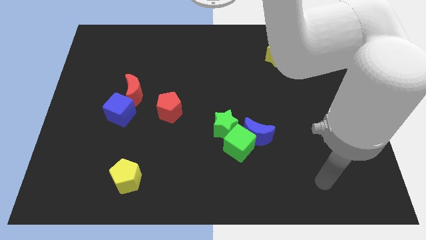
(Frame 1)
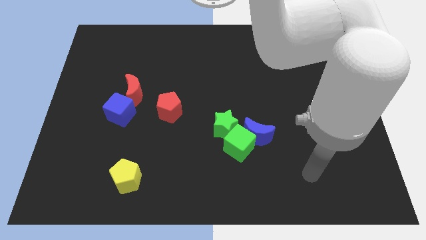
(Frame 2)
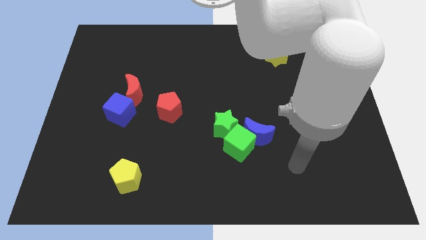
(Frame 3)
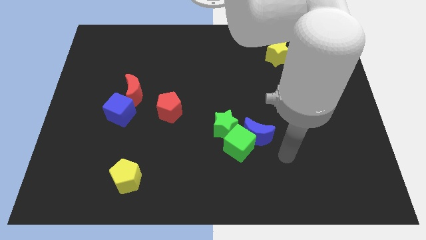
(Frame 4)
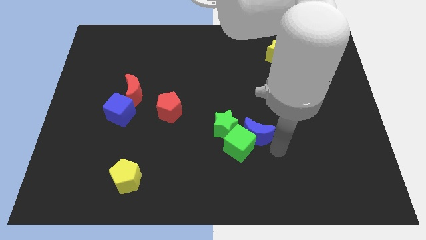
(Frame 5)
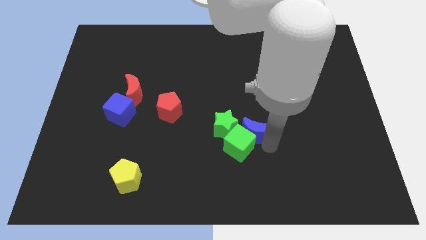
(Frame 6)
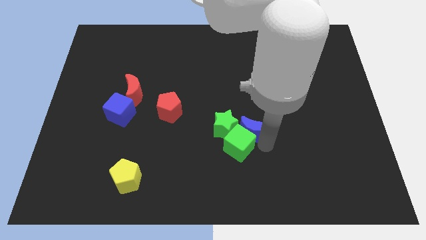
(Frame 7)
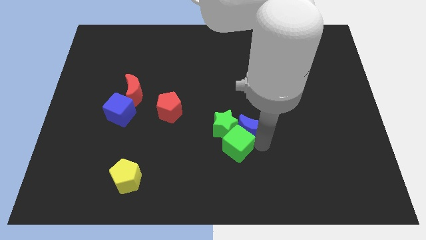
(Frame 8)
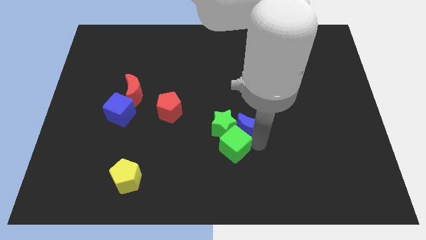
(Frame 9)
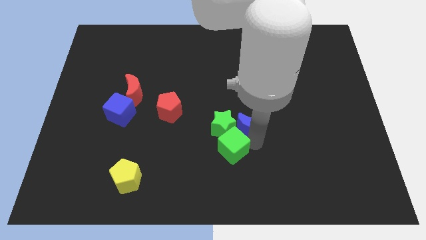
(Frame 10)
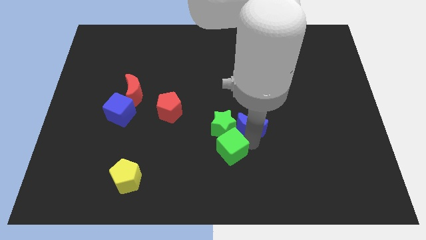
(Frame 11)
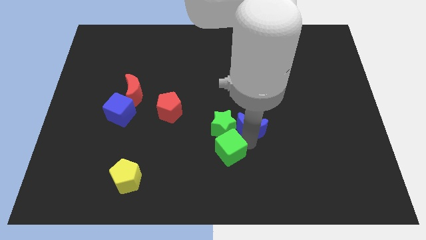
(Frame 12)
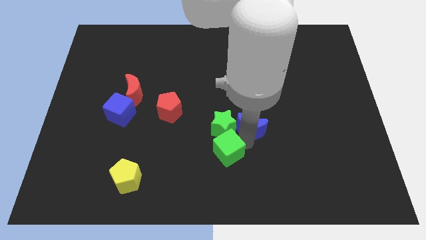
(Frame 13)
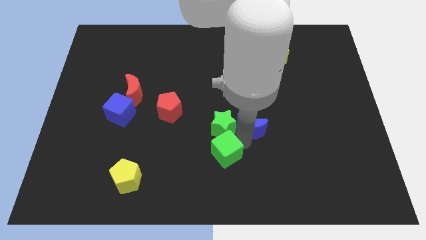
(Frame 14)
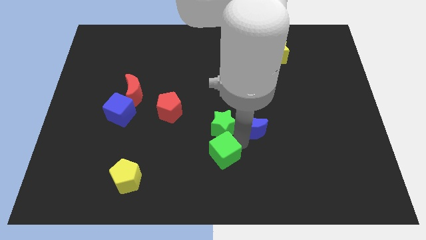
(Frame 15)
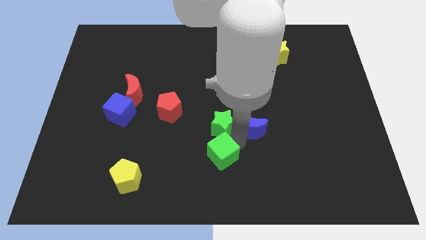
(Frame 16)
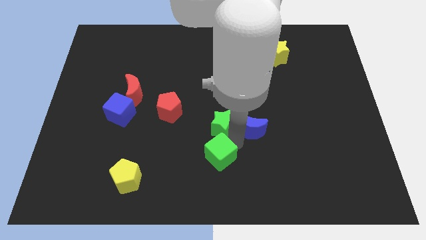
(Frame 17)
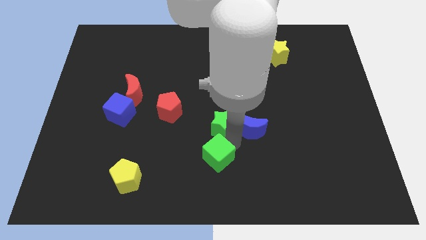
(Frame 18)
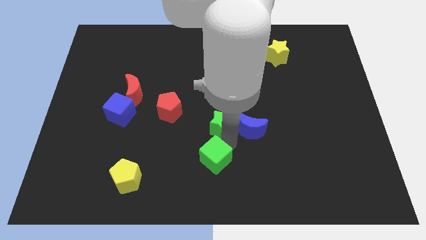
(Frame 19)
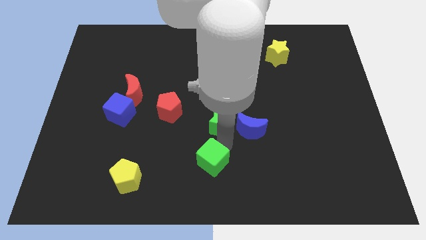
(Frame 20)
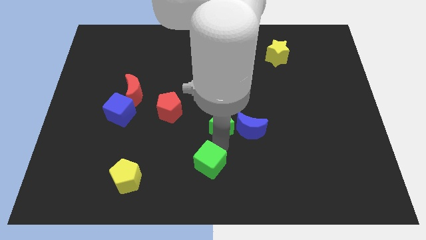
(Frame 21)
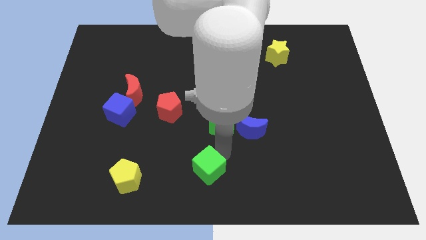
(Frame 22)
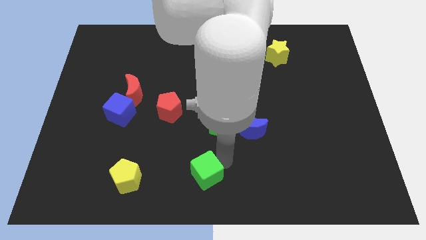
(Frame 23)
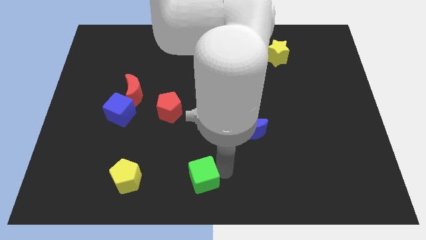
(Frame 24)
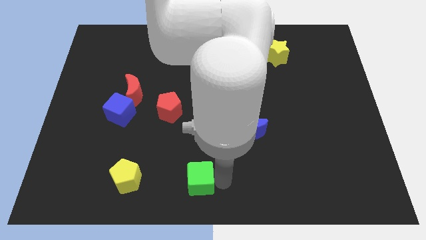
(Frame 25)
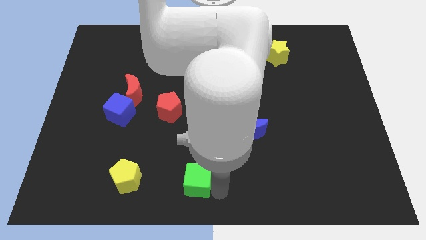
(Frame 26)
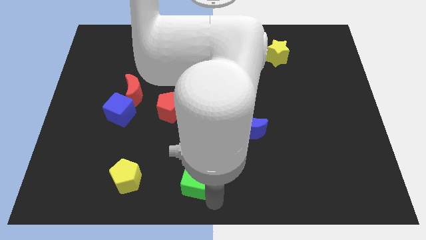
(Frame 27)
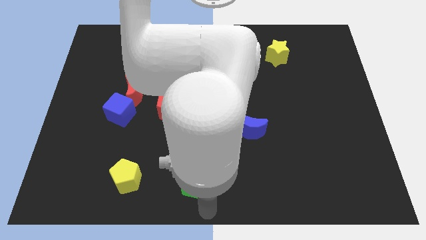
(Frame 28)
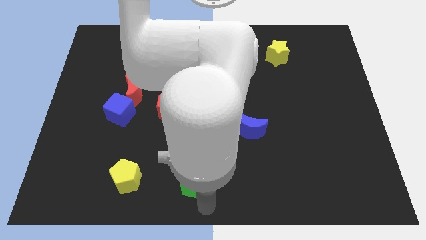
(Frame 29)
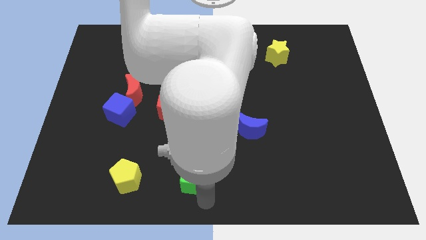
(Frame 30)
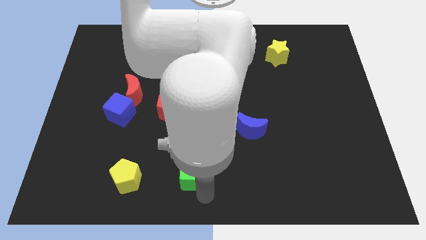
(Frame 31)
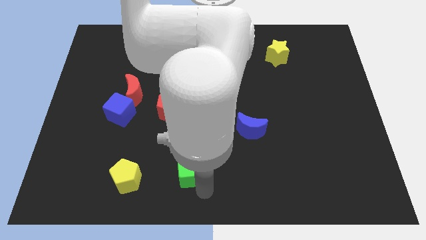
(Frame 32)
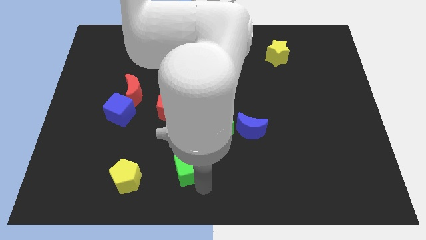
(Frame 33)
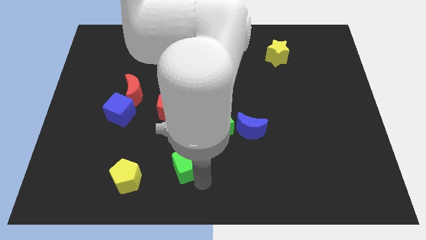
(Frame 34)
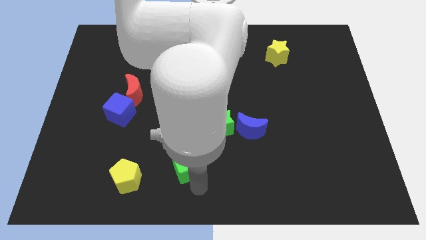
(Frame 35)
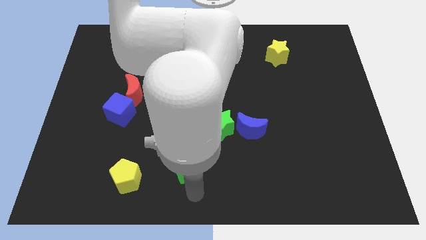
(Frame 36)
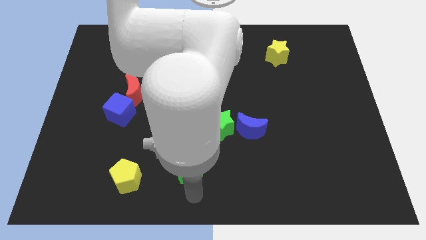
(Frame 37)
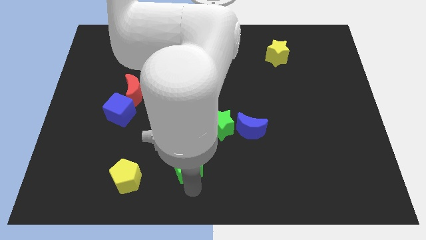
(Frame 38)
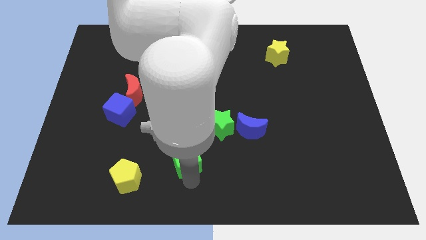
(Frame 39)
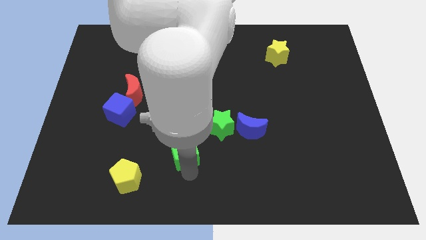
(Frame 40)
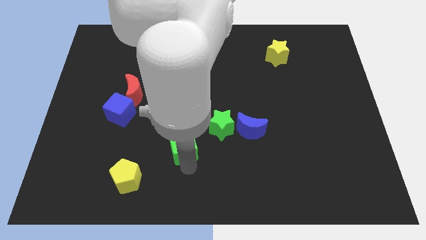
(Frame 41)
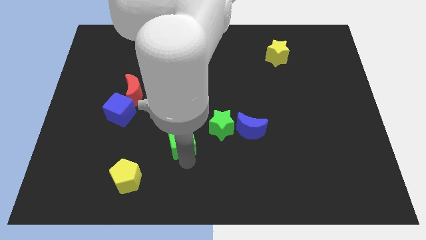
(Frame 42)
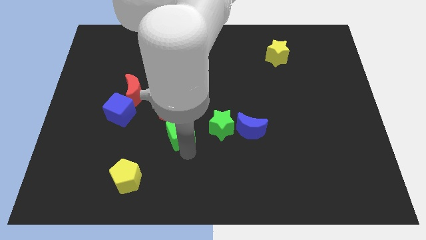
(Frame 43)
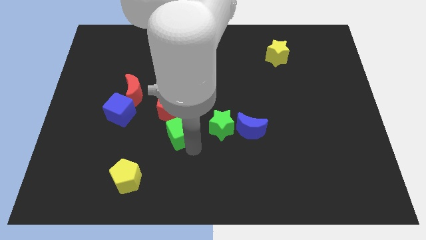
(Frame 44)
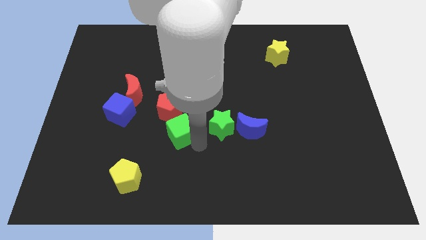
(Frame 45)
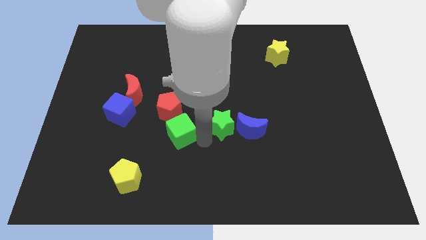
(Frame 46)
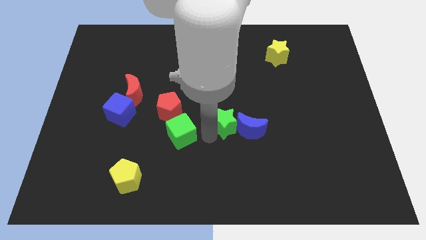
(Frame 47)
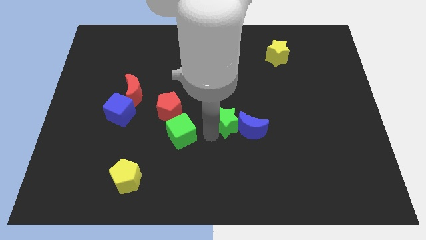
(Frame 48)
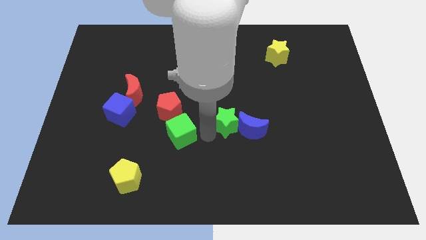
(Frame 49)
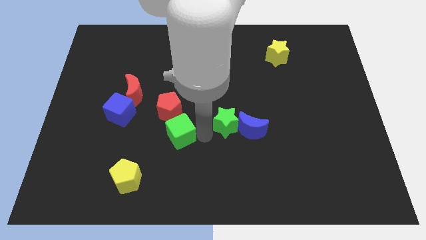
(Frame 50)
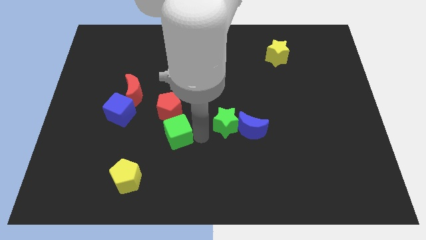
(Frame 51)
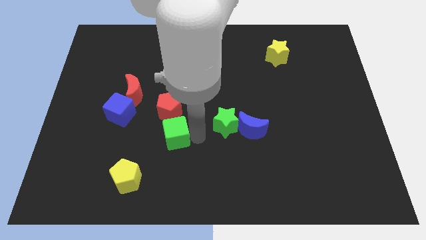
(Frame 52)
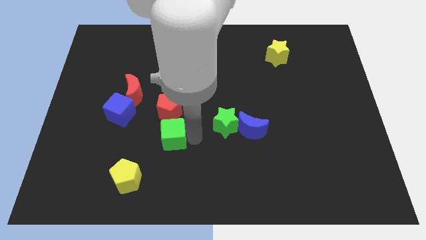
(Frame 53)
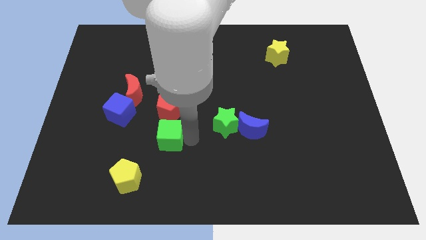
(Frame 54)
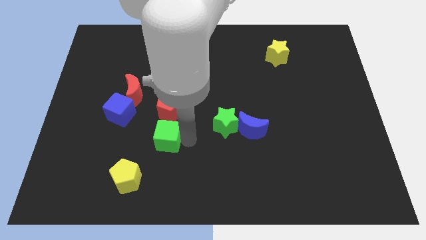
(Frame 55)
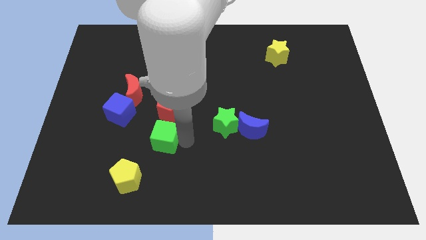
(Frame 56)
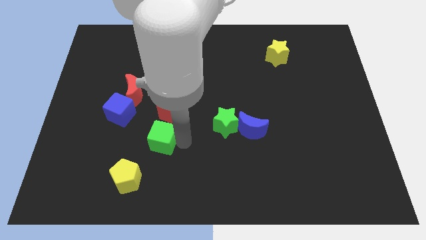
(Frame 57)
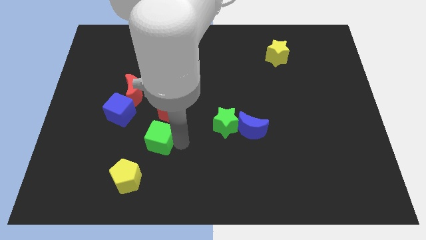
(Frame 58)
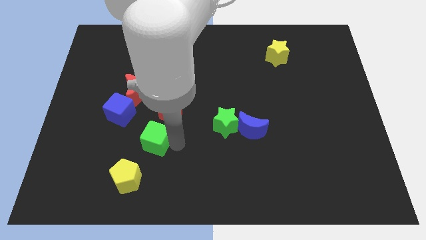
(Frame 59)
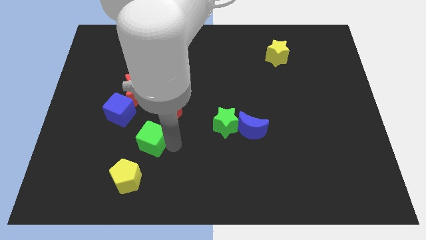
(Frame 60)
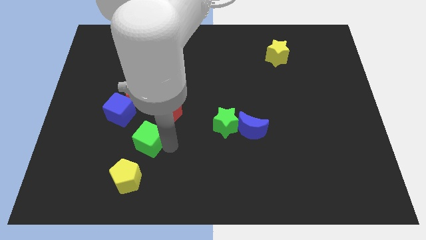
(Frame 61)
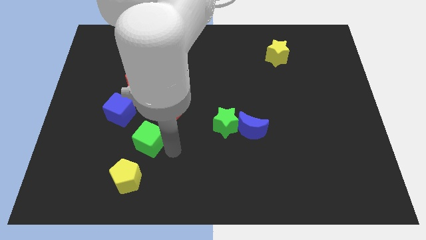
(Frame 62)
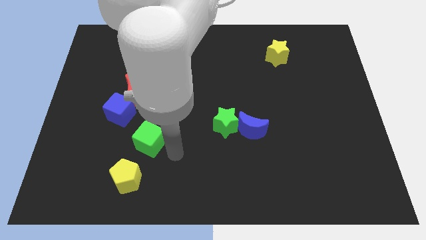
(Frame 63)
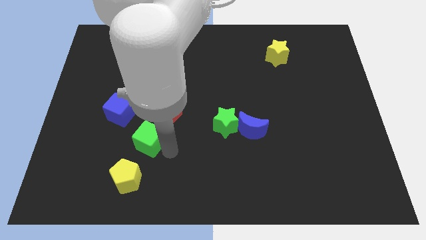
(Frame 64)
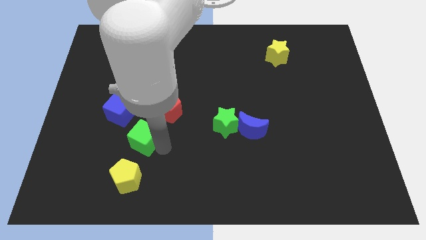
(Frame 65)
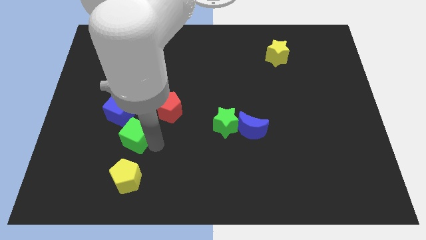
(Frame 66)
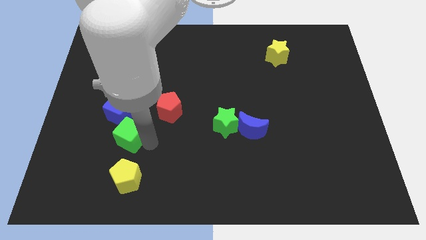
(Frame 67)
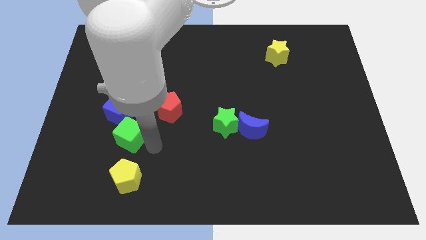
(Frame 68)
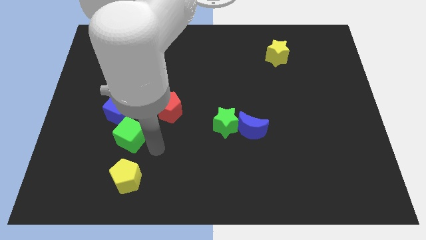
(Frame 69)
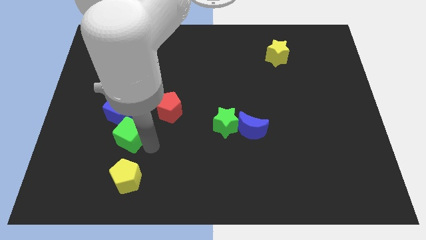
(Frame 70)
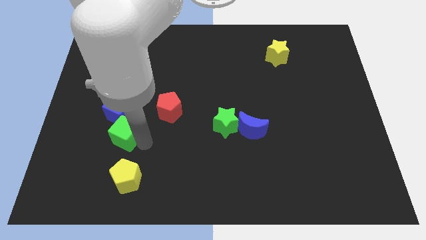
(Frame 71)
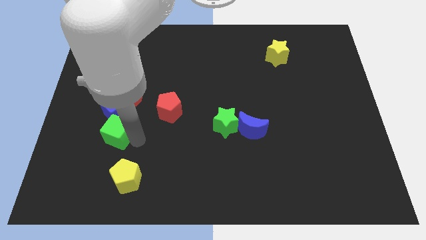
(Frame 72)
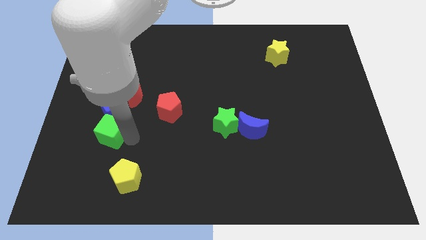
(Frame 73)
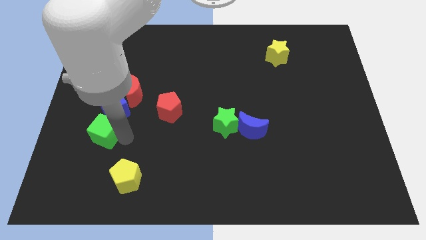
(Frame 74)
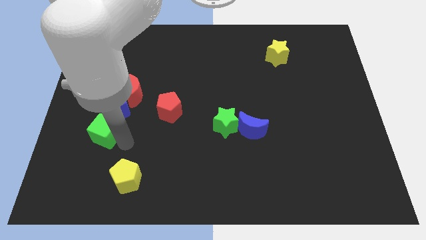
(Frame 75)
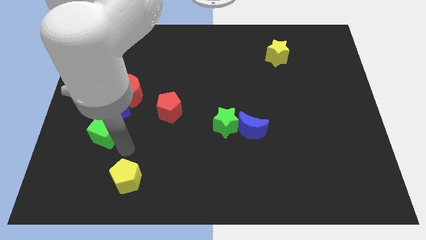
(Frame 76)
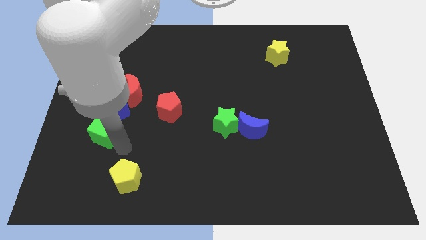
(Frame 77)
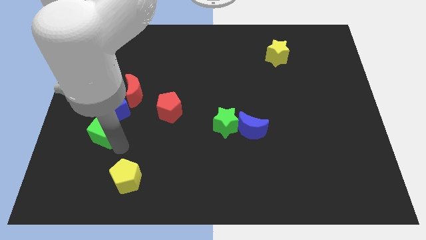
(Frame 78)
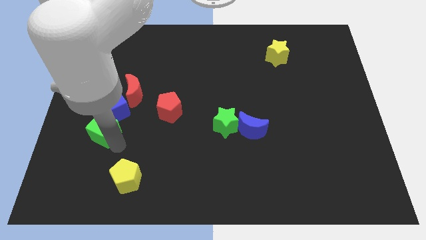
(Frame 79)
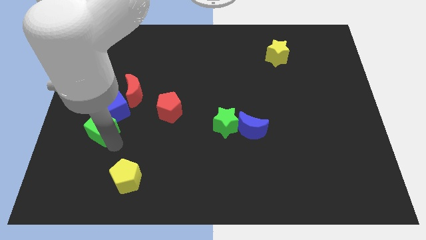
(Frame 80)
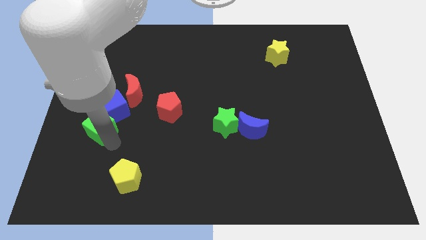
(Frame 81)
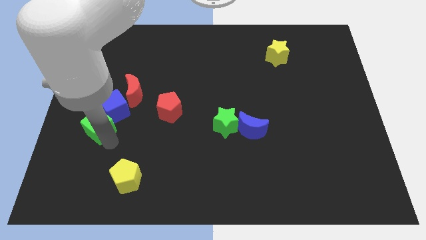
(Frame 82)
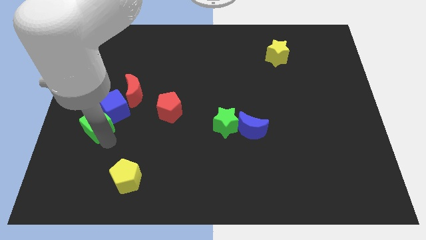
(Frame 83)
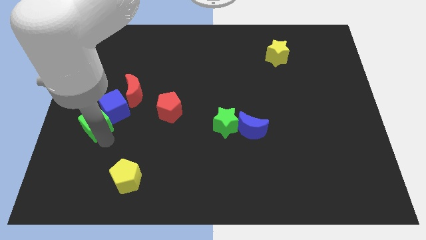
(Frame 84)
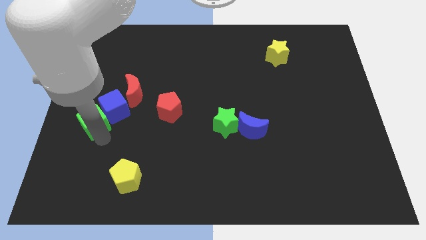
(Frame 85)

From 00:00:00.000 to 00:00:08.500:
push the green cube to the left side
